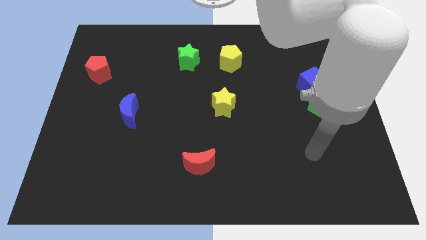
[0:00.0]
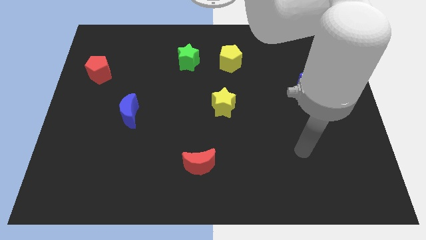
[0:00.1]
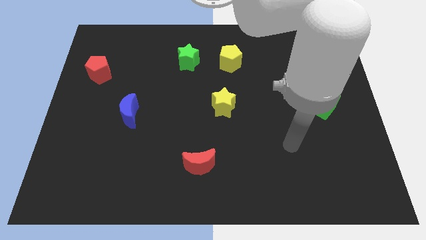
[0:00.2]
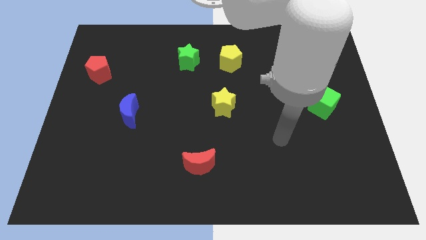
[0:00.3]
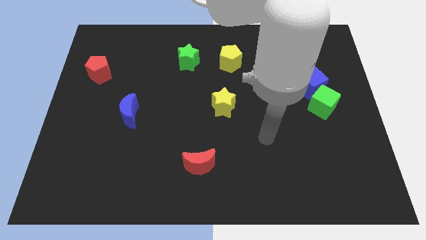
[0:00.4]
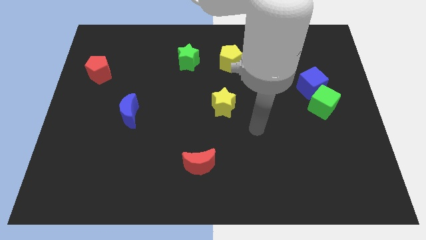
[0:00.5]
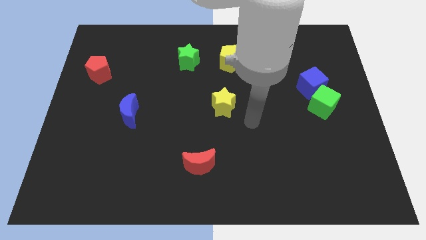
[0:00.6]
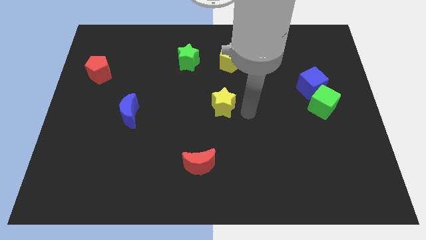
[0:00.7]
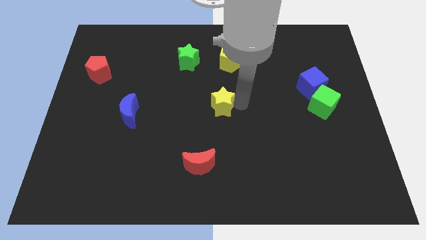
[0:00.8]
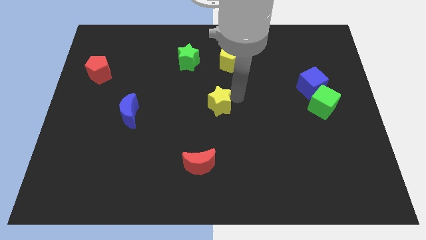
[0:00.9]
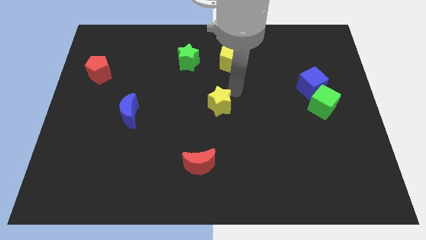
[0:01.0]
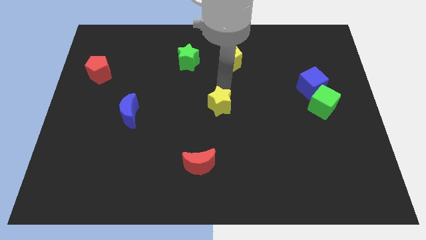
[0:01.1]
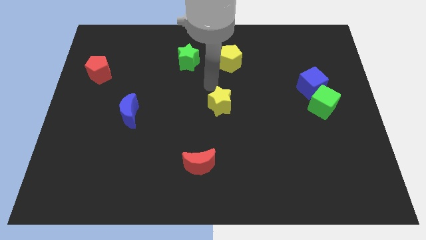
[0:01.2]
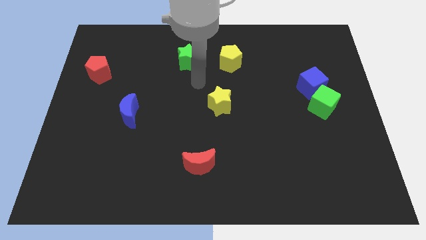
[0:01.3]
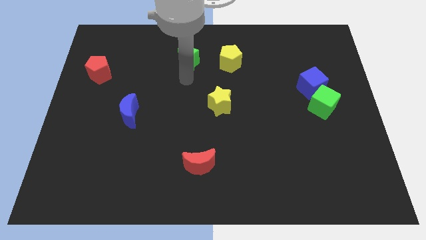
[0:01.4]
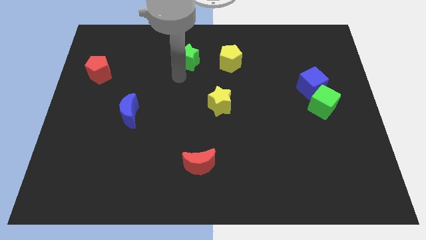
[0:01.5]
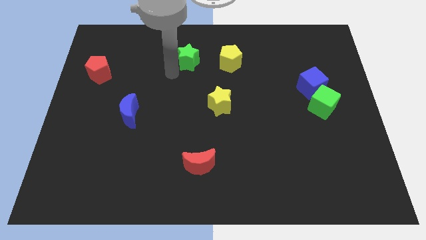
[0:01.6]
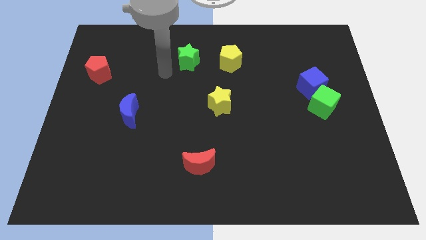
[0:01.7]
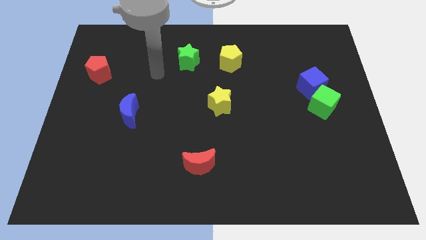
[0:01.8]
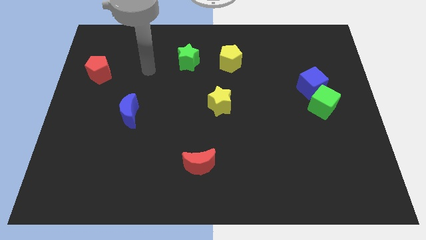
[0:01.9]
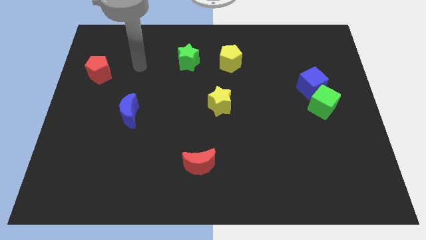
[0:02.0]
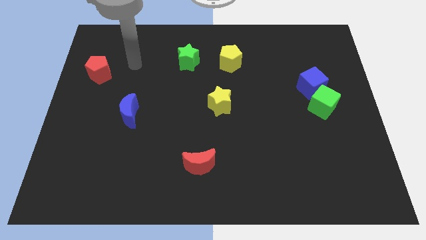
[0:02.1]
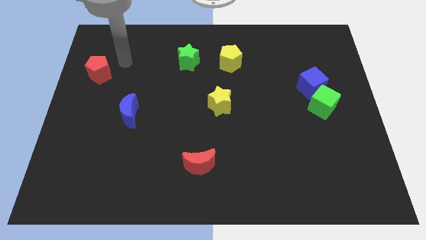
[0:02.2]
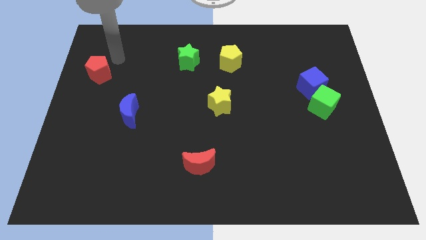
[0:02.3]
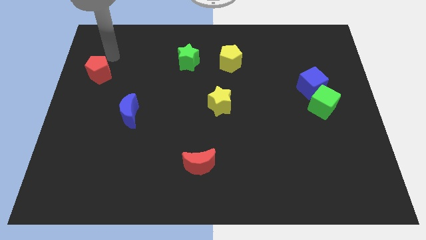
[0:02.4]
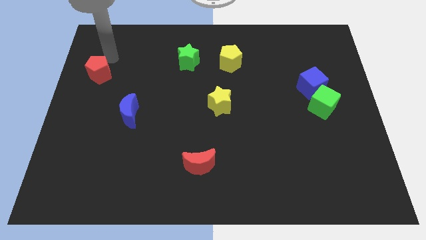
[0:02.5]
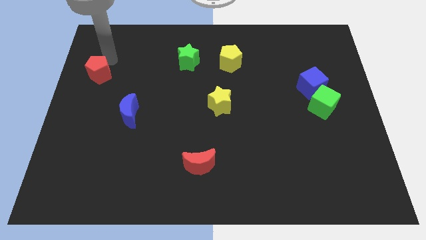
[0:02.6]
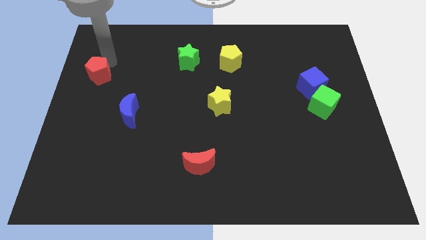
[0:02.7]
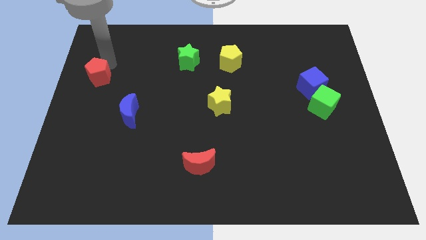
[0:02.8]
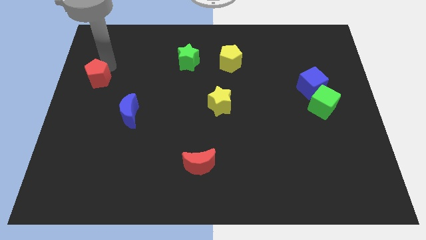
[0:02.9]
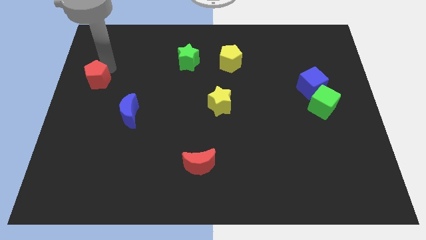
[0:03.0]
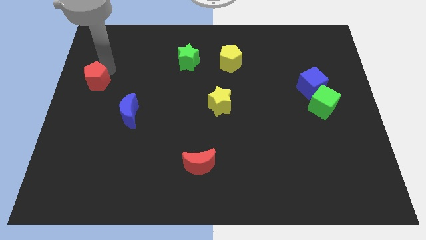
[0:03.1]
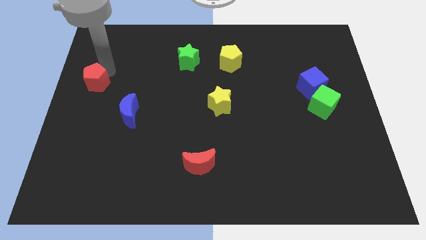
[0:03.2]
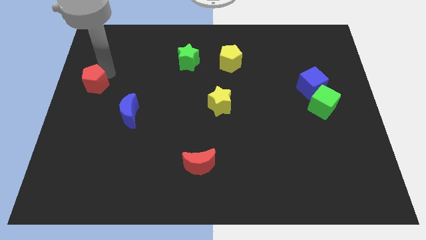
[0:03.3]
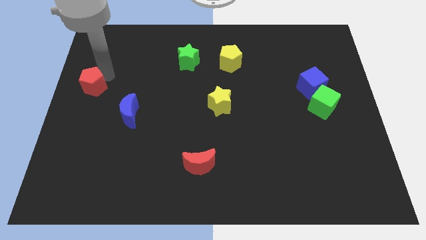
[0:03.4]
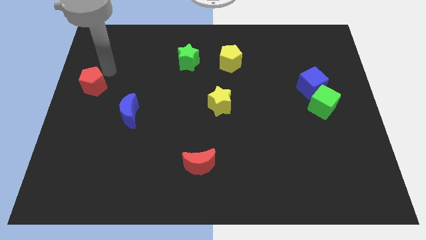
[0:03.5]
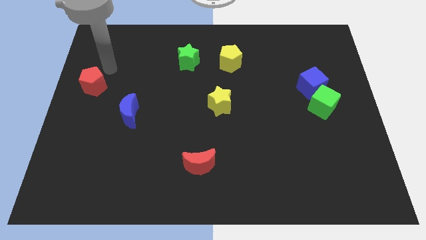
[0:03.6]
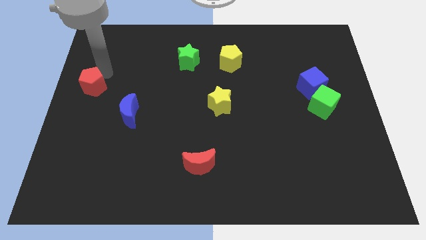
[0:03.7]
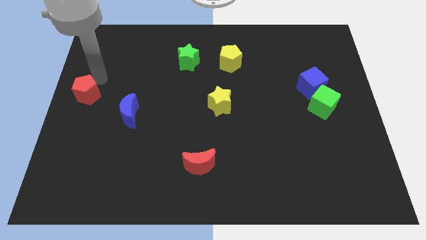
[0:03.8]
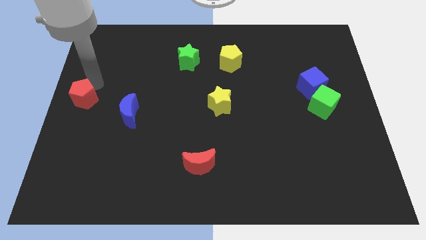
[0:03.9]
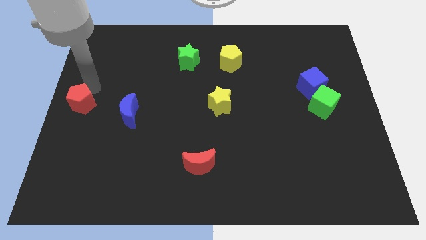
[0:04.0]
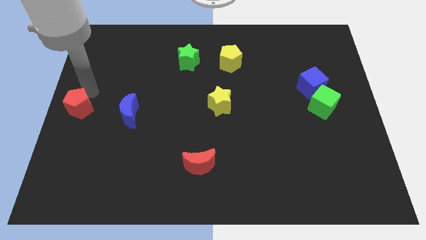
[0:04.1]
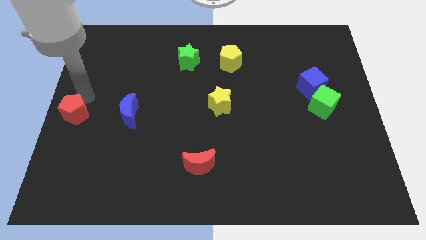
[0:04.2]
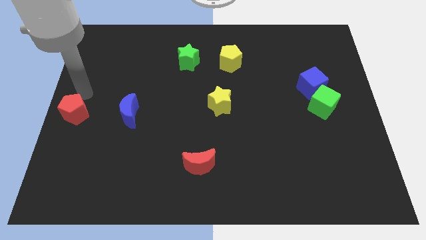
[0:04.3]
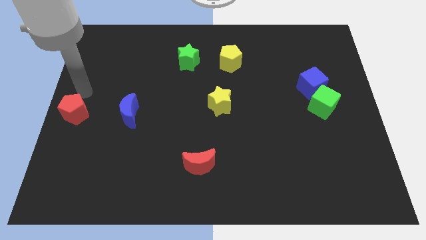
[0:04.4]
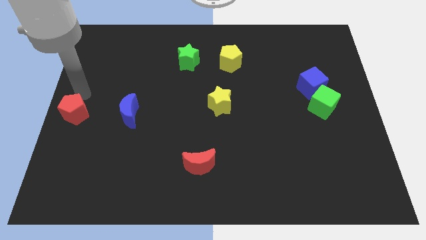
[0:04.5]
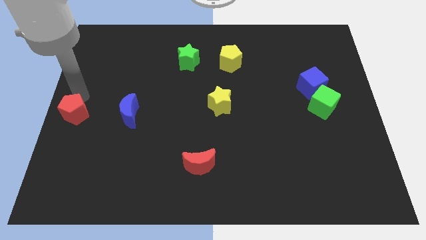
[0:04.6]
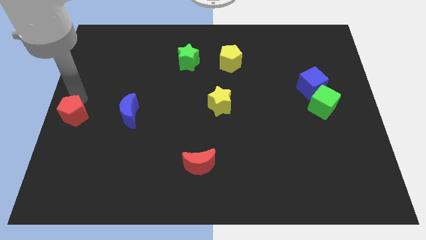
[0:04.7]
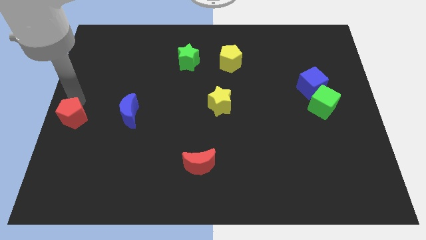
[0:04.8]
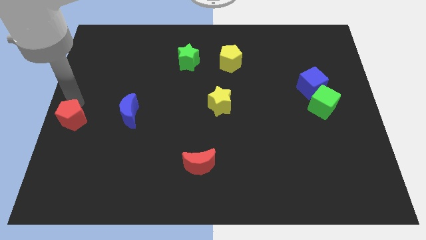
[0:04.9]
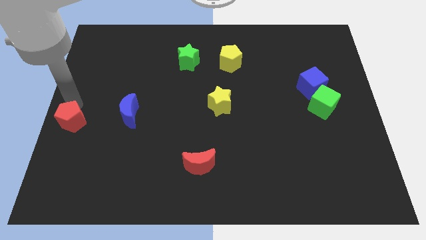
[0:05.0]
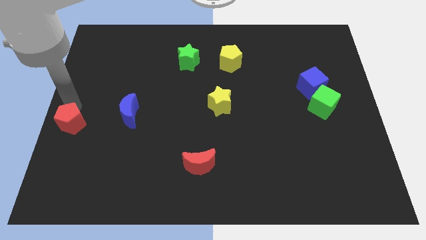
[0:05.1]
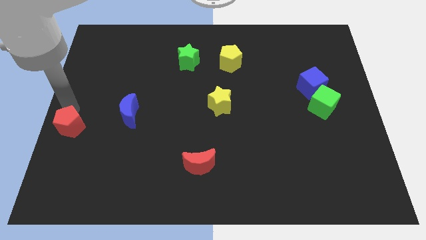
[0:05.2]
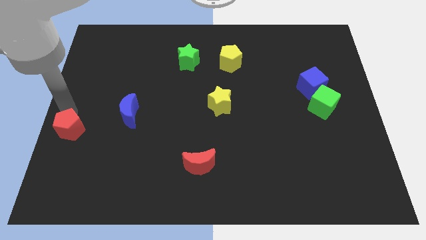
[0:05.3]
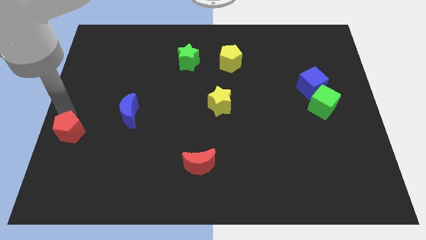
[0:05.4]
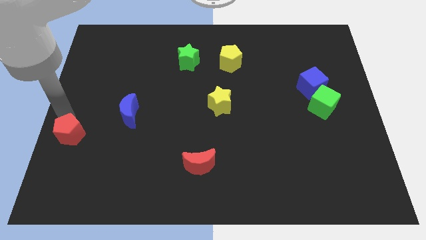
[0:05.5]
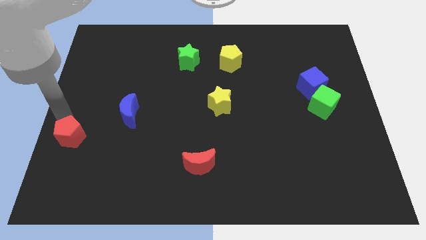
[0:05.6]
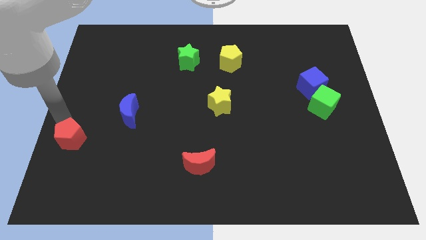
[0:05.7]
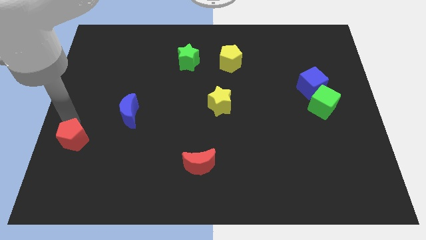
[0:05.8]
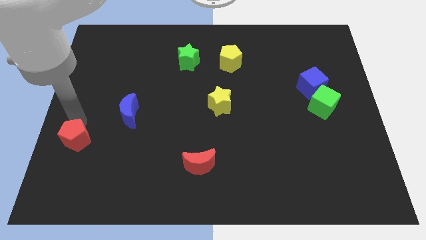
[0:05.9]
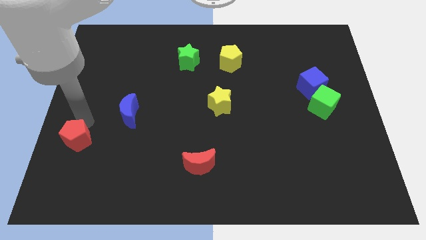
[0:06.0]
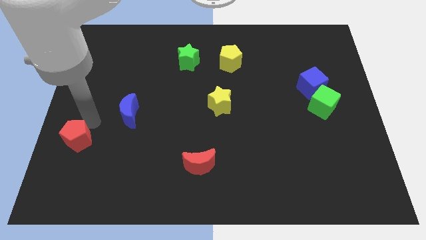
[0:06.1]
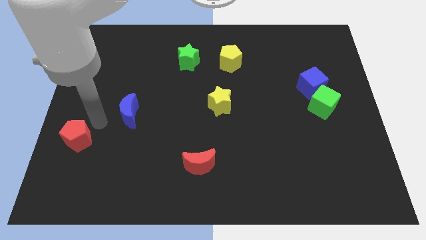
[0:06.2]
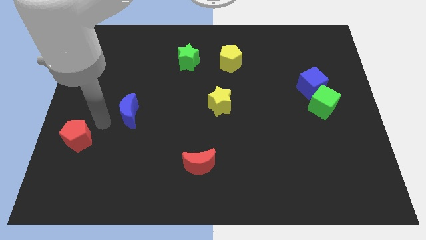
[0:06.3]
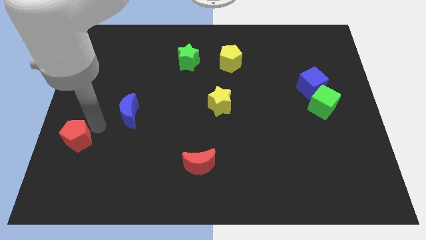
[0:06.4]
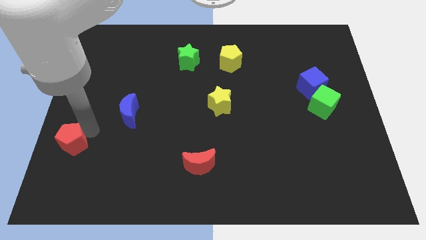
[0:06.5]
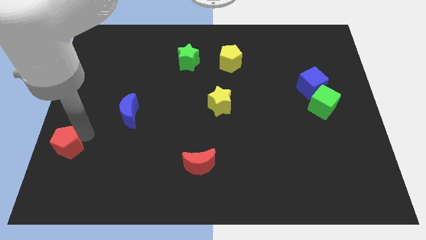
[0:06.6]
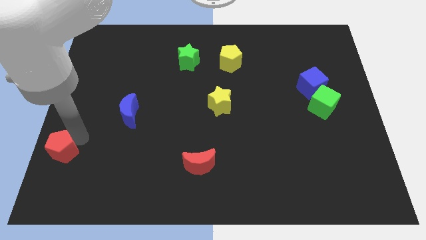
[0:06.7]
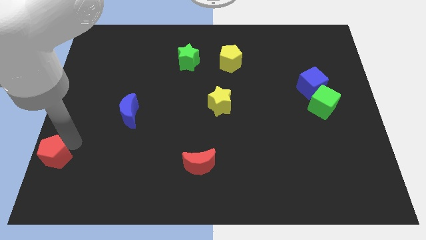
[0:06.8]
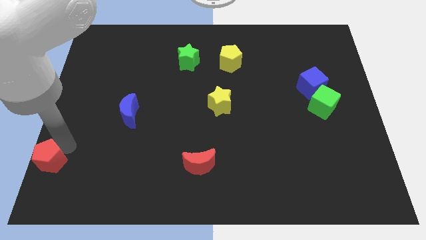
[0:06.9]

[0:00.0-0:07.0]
slide the red pentagon to the bottom left of the board
